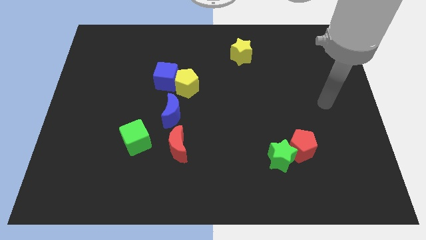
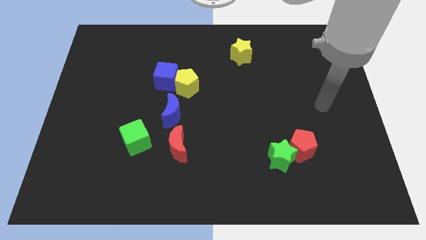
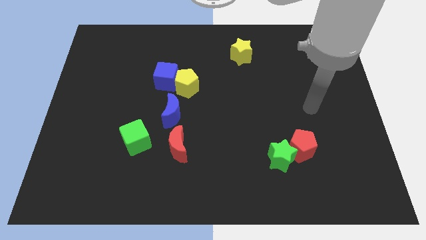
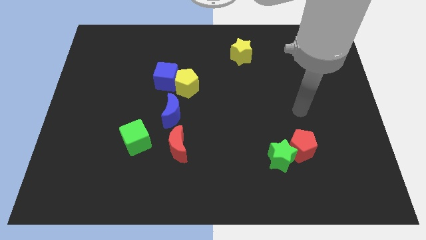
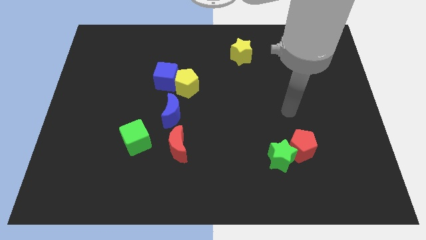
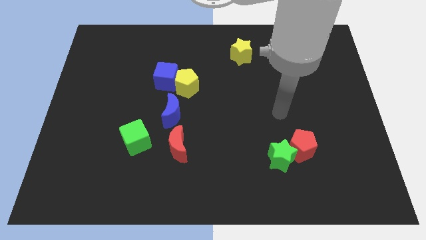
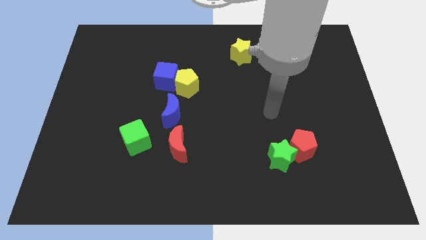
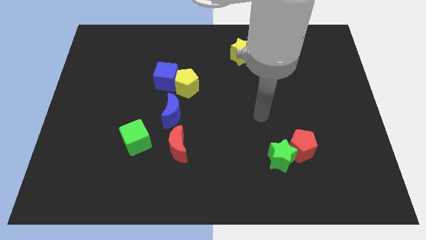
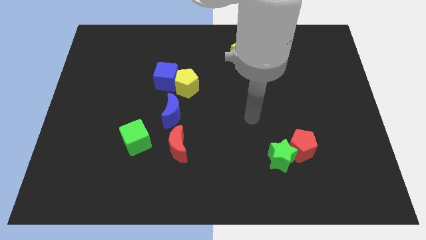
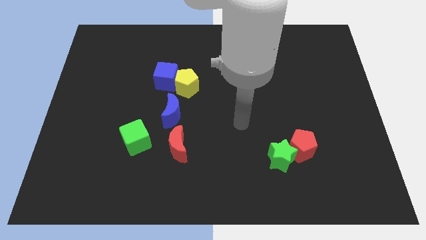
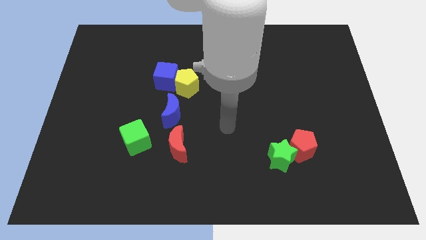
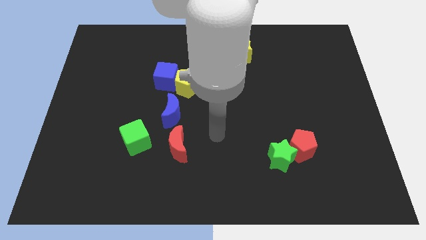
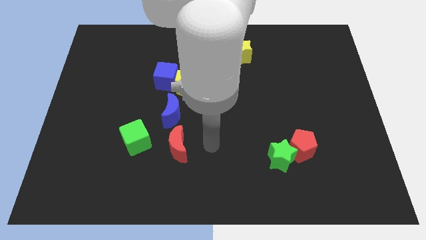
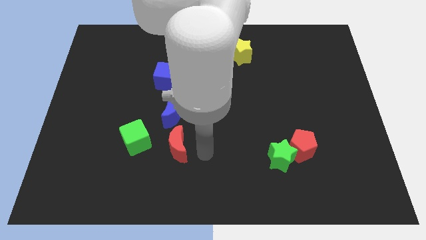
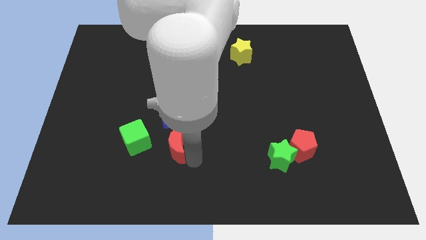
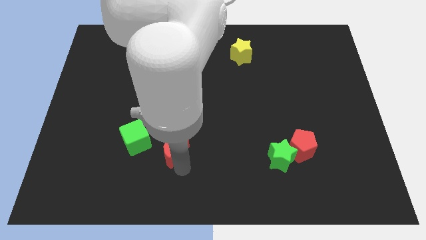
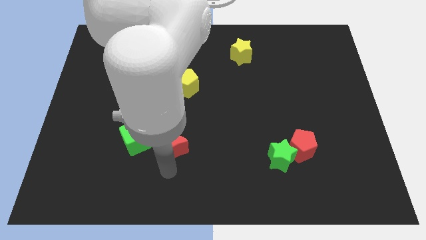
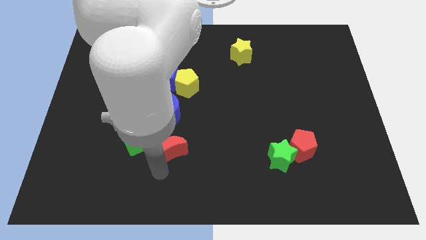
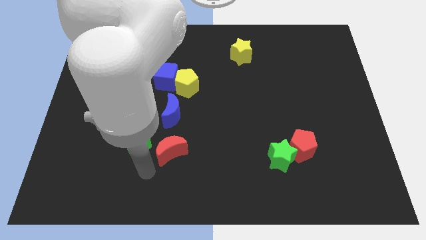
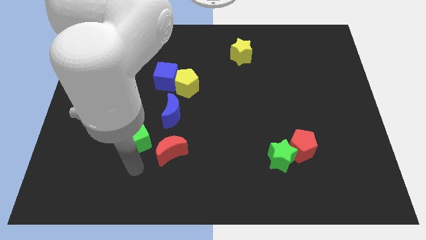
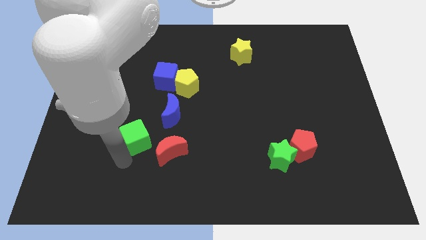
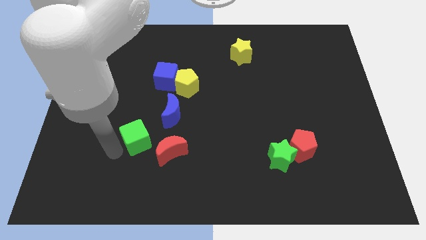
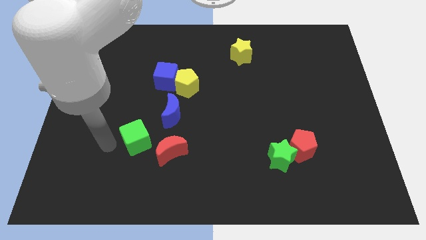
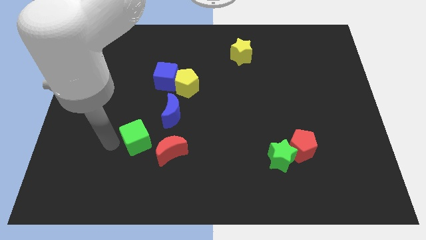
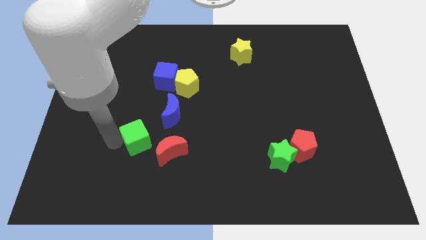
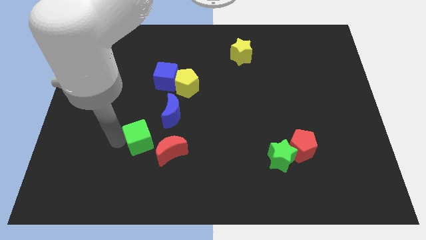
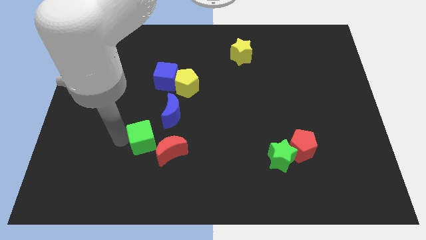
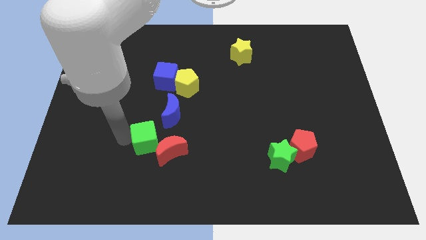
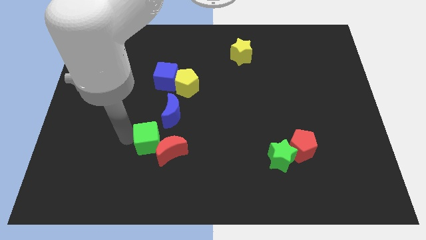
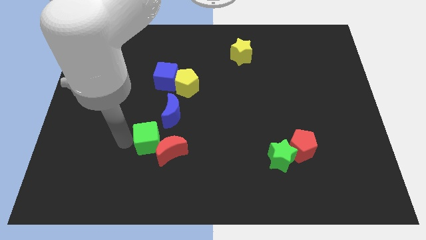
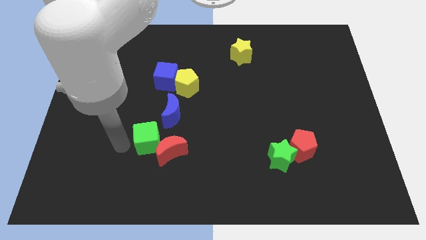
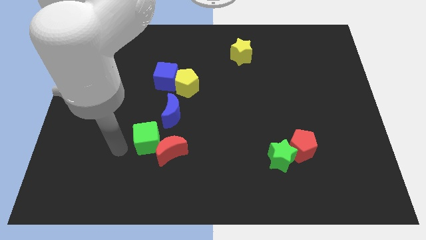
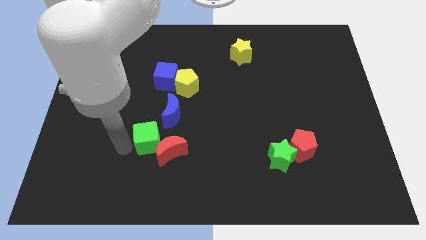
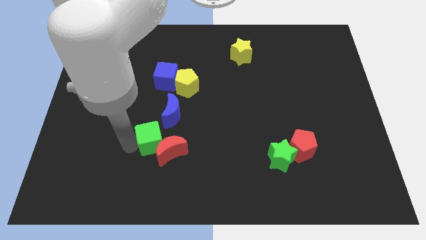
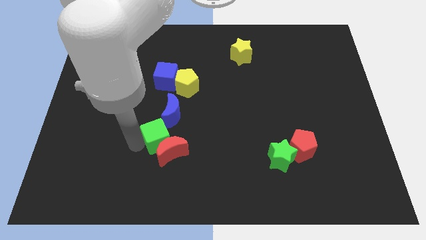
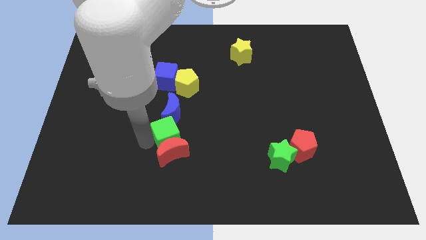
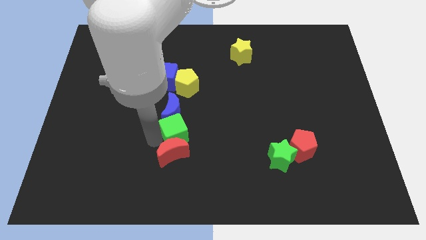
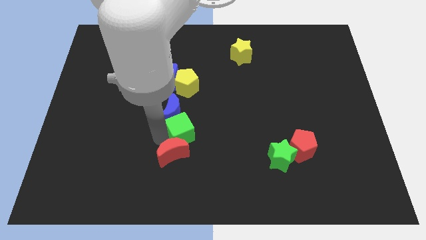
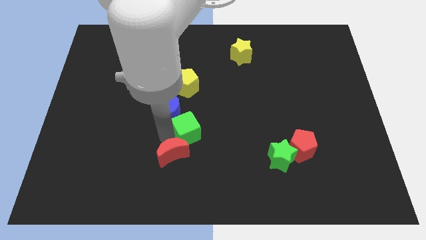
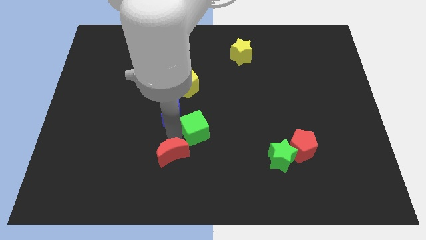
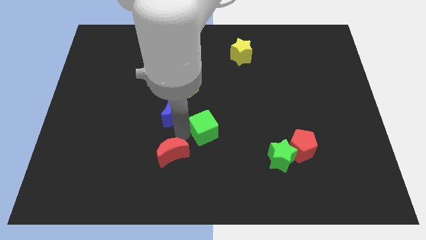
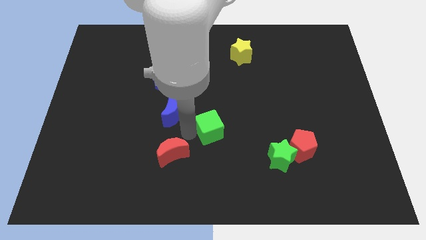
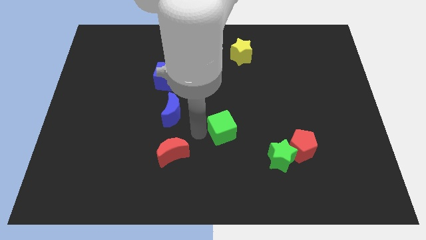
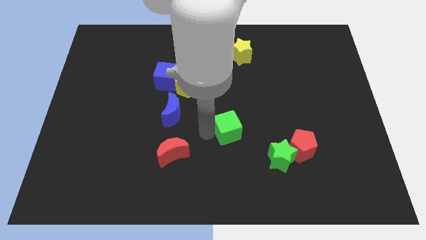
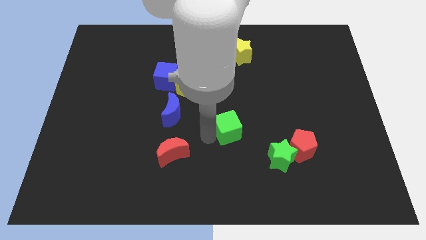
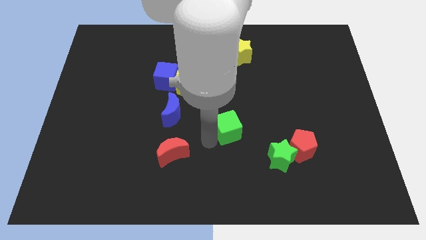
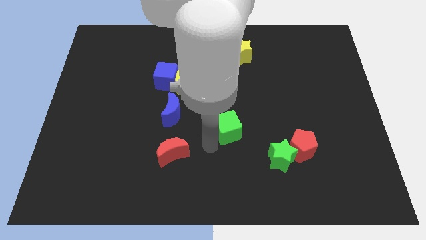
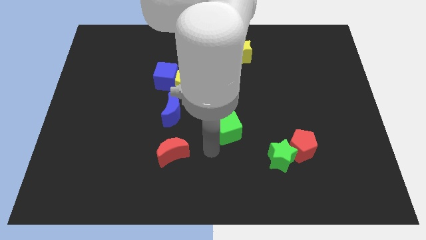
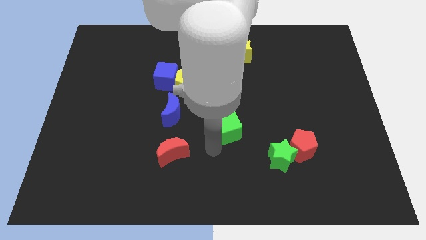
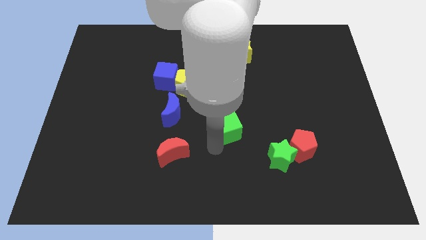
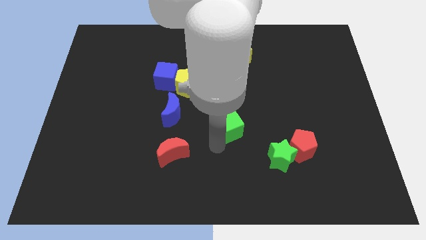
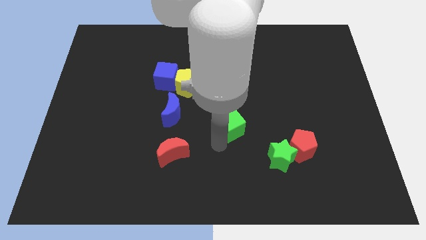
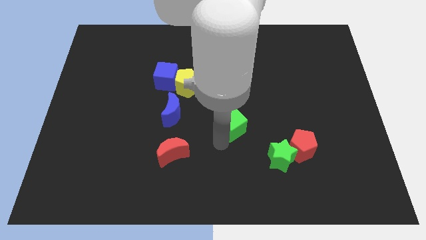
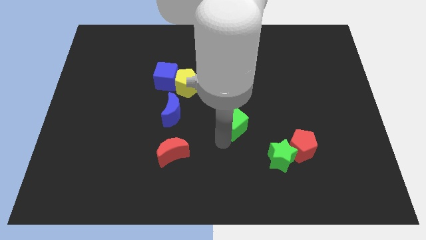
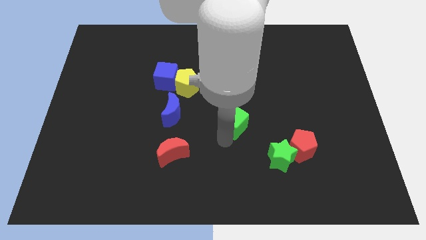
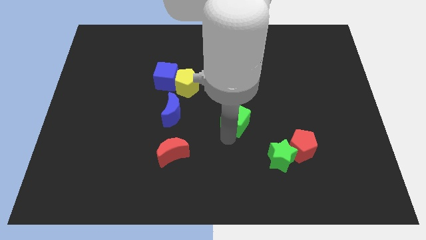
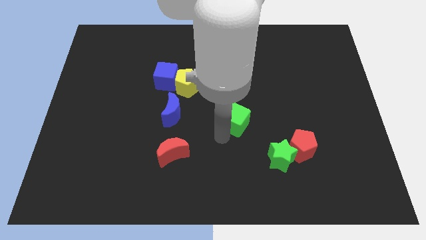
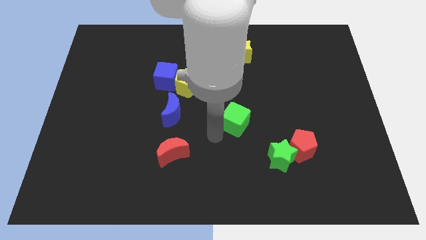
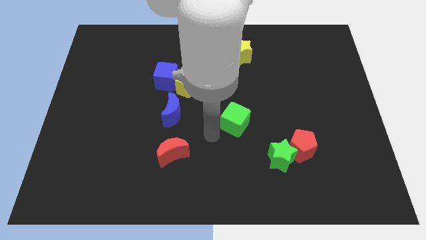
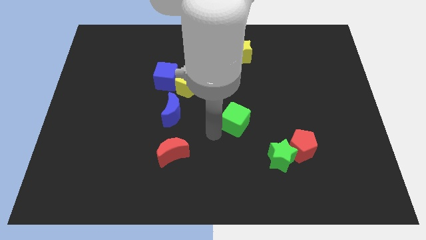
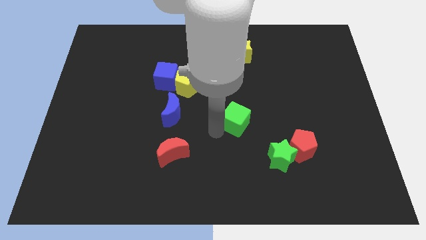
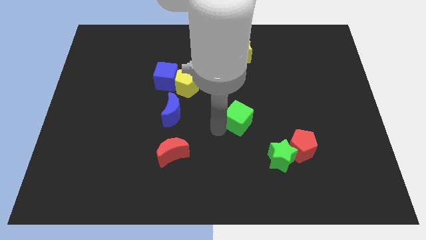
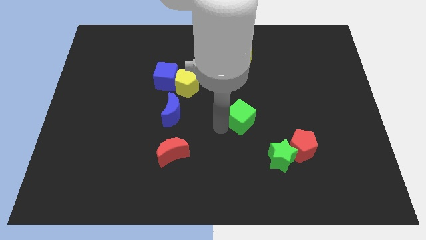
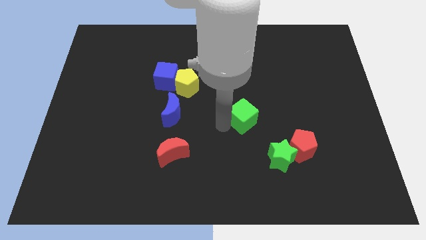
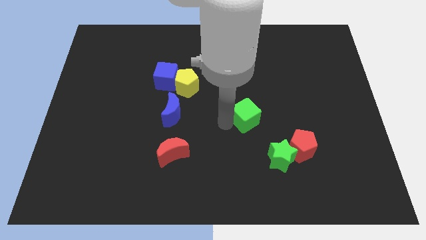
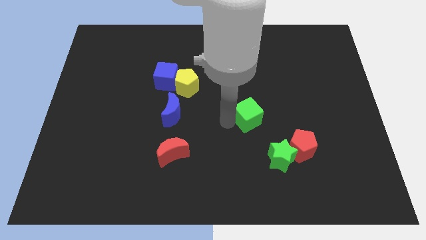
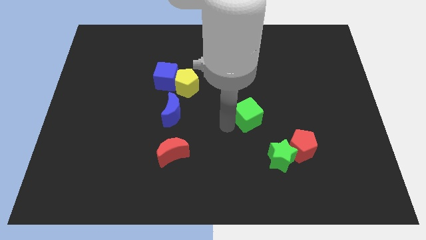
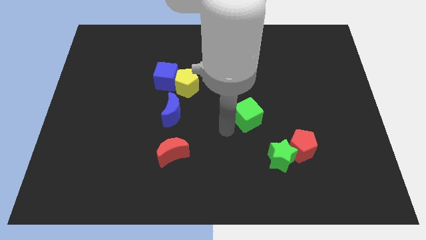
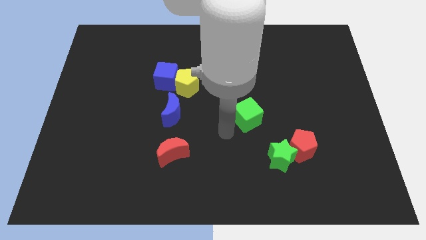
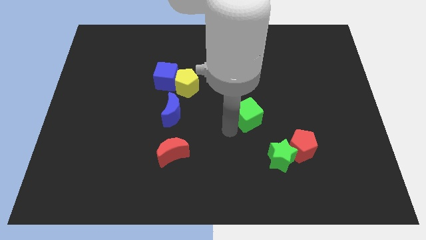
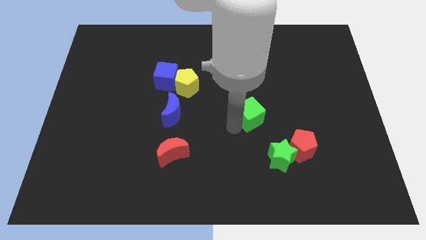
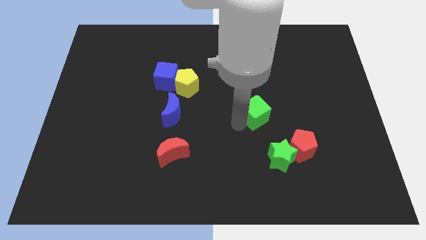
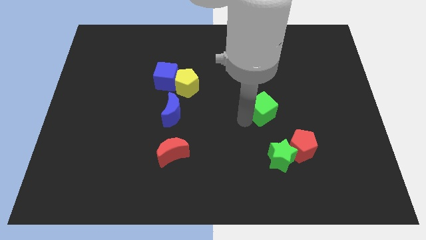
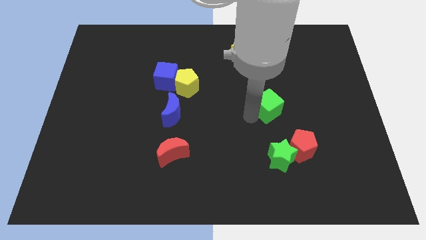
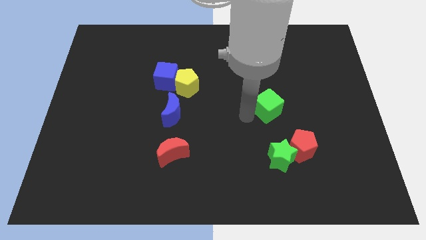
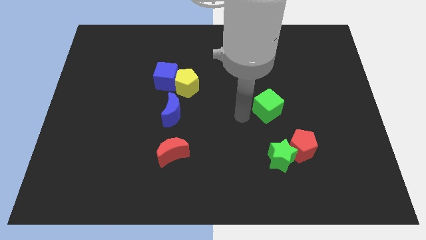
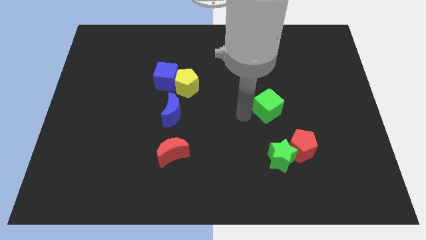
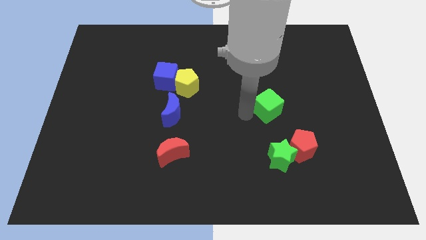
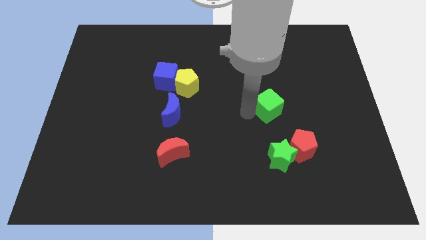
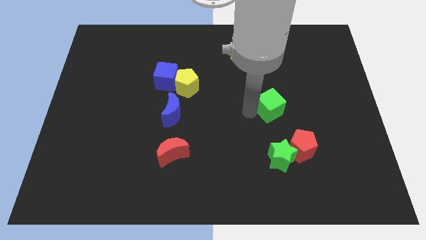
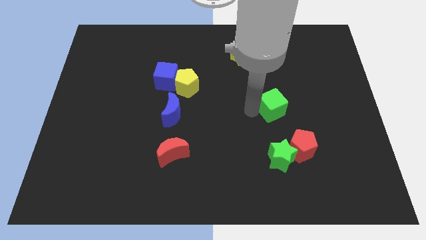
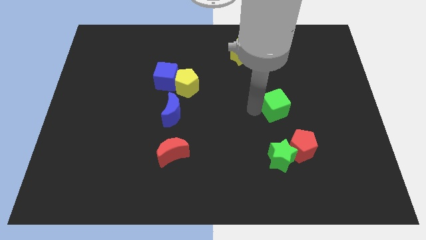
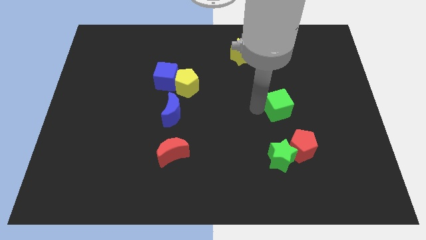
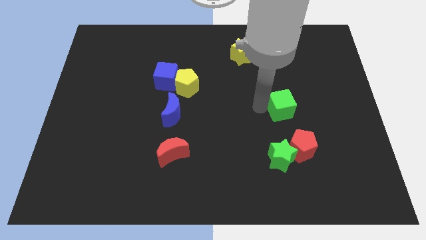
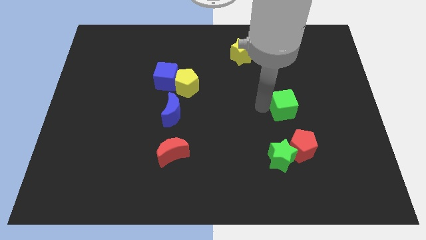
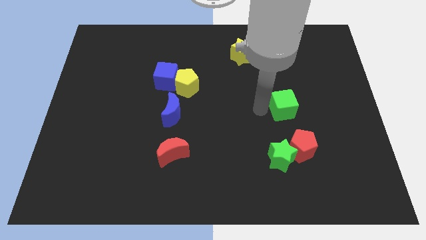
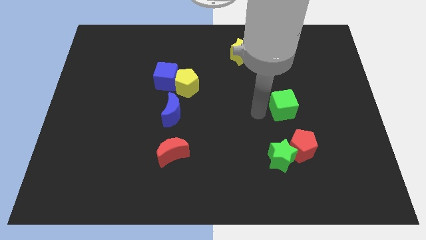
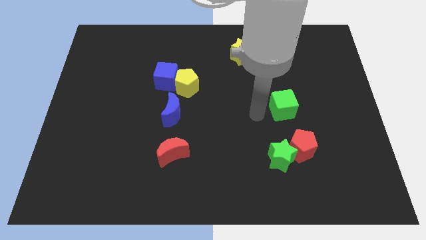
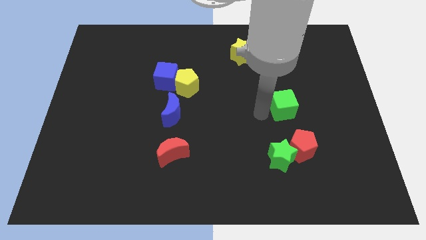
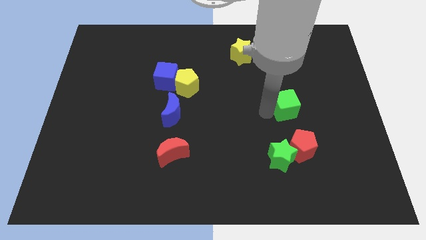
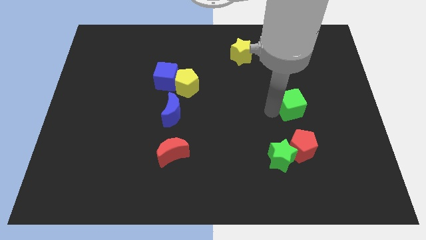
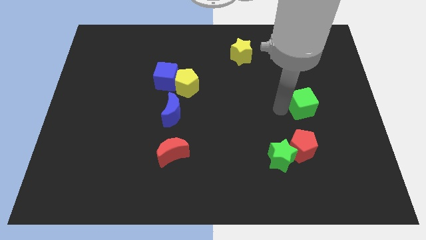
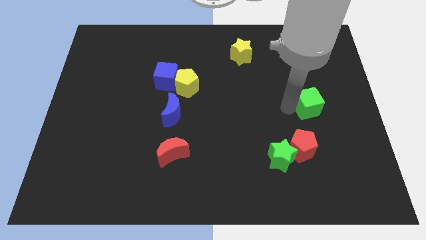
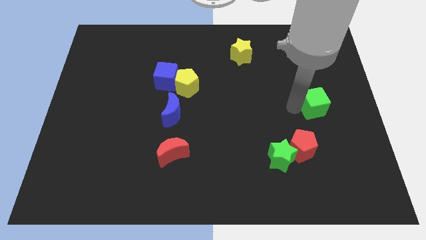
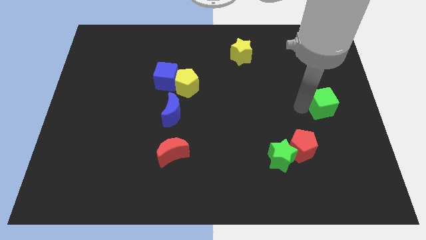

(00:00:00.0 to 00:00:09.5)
move the green cube to the right side
